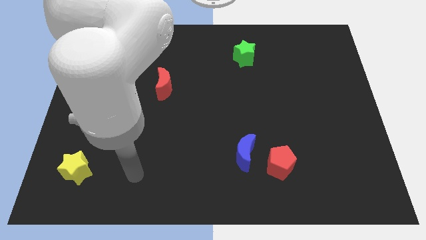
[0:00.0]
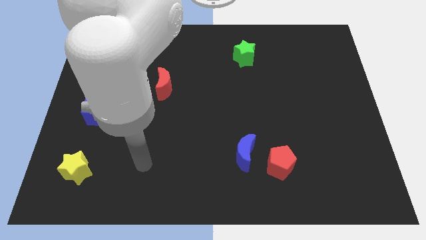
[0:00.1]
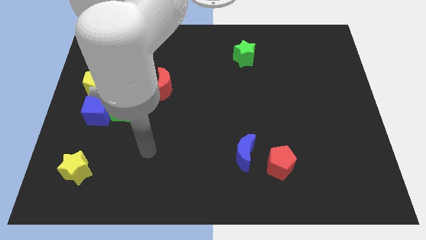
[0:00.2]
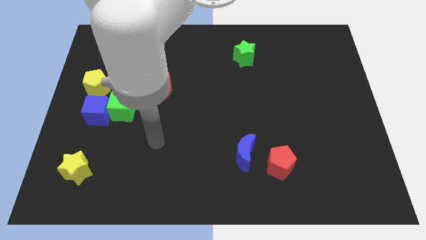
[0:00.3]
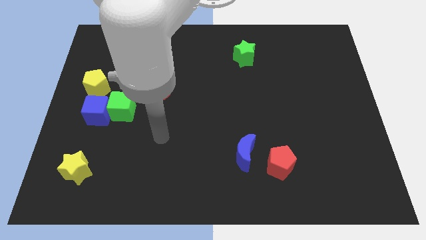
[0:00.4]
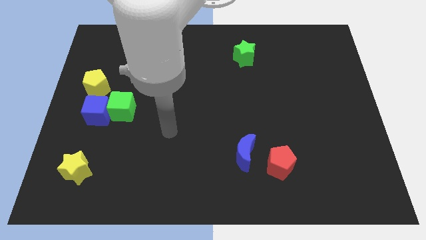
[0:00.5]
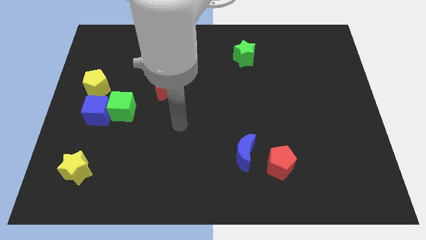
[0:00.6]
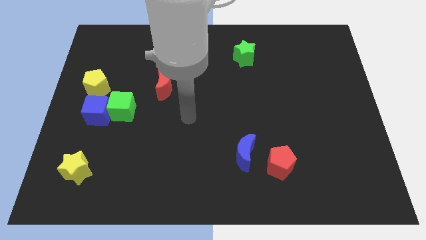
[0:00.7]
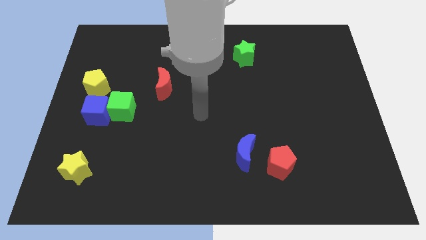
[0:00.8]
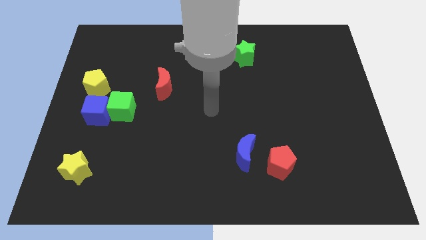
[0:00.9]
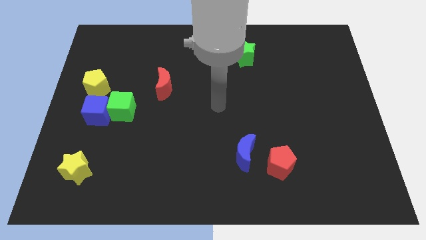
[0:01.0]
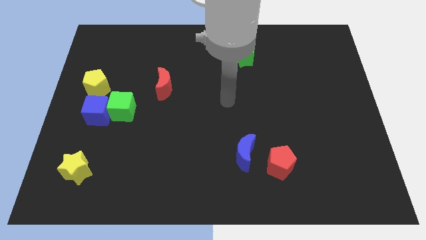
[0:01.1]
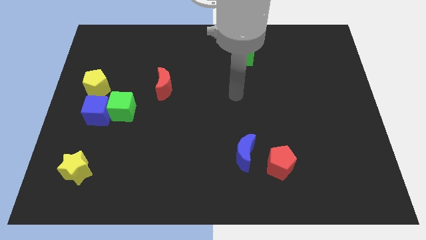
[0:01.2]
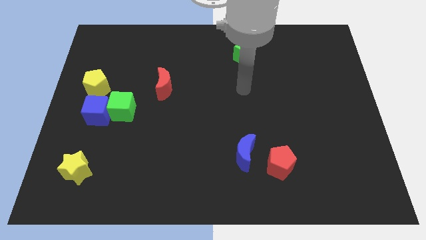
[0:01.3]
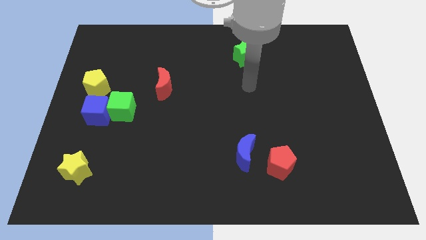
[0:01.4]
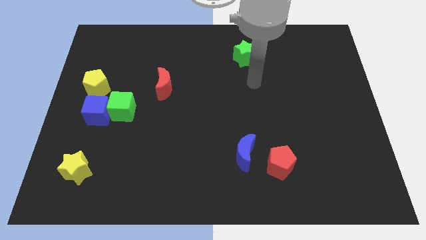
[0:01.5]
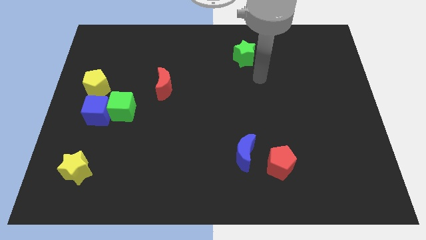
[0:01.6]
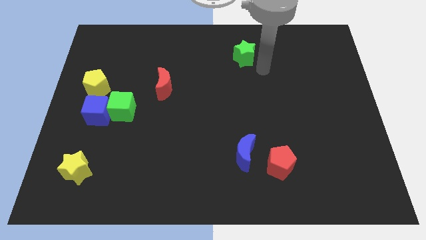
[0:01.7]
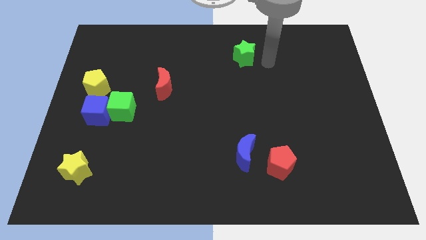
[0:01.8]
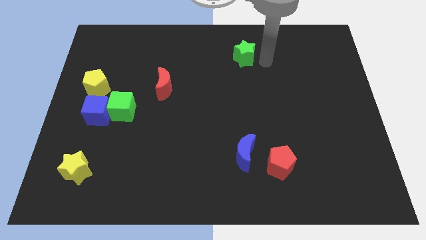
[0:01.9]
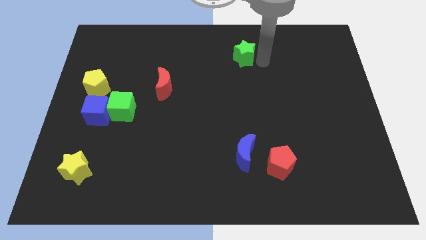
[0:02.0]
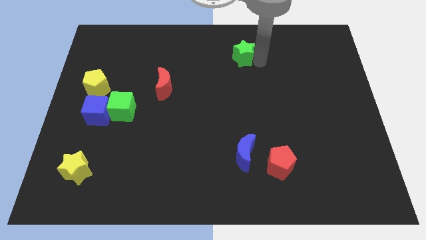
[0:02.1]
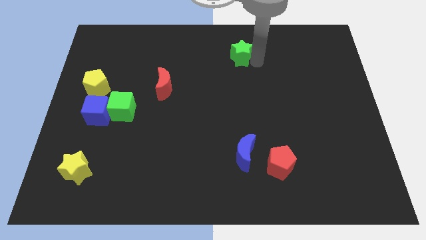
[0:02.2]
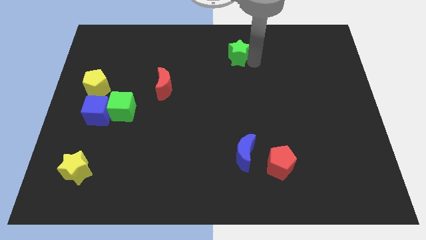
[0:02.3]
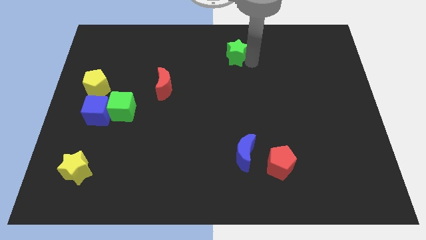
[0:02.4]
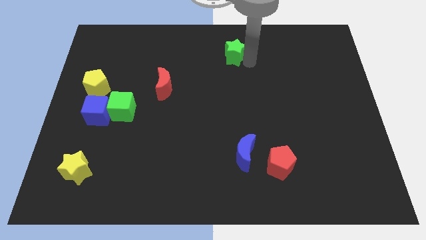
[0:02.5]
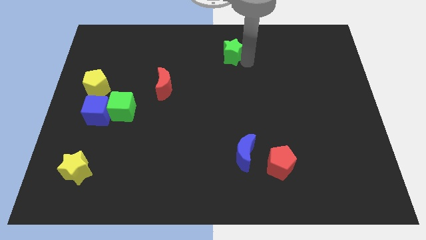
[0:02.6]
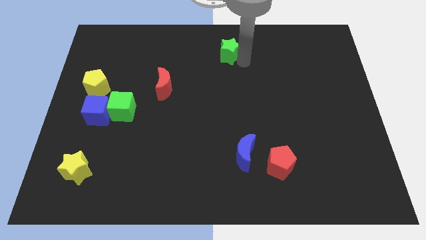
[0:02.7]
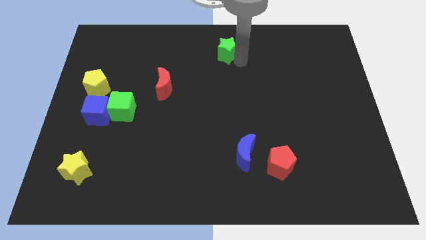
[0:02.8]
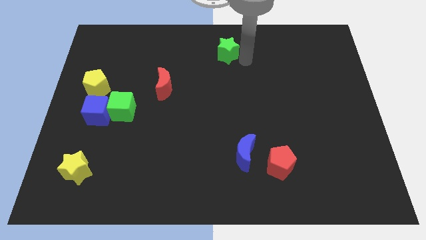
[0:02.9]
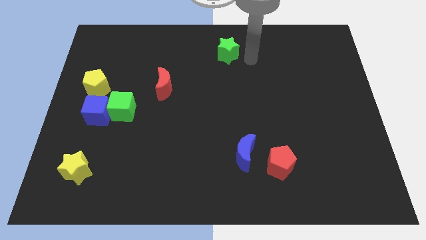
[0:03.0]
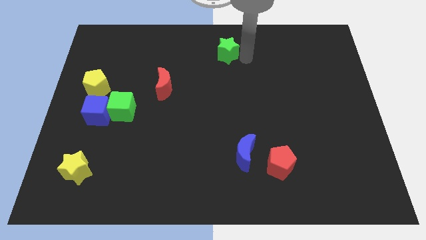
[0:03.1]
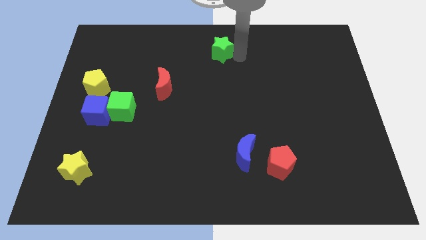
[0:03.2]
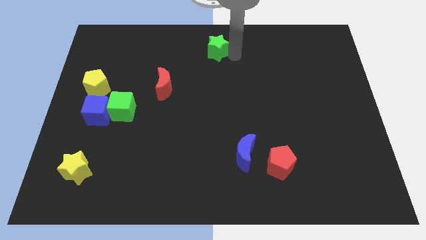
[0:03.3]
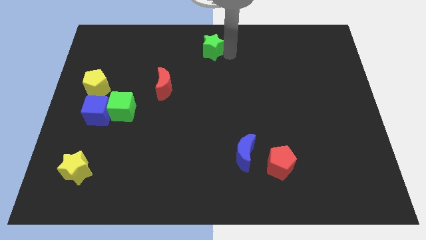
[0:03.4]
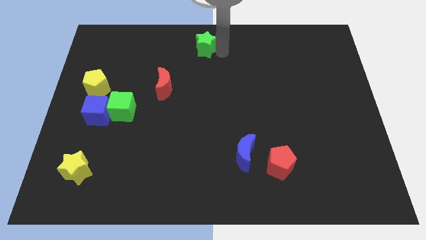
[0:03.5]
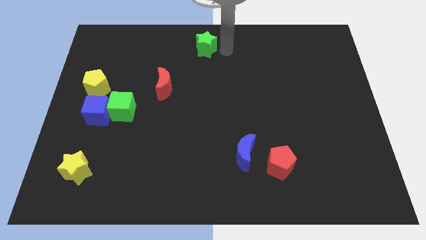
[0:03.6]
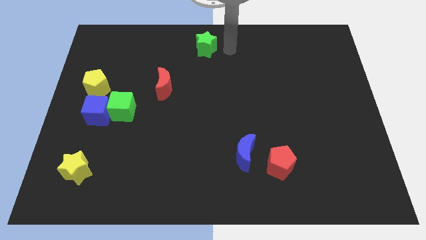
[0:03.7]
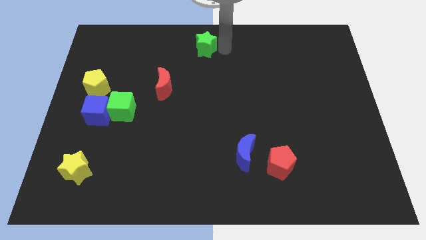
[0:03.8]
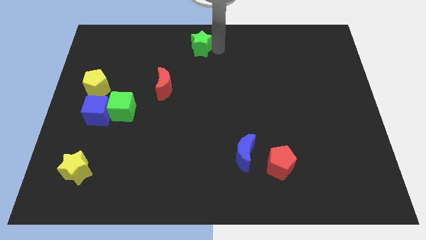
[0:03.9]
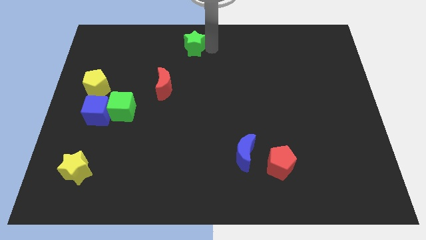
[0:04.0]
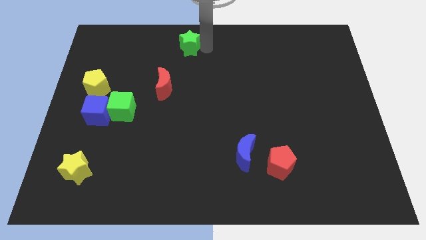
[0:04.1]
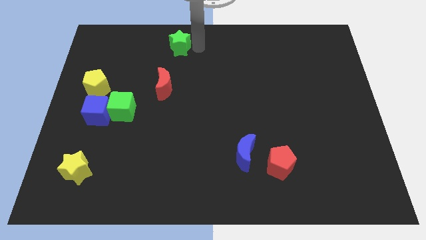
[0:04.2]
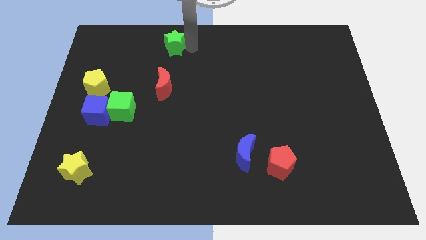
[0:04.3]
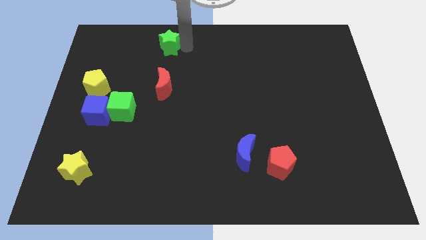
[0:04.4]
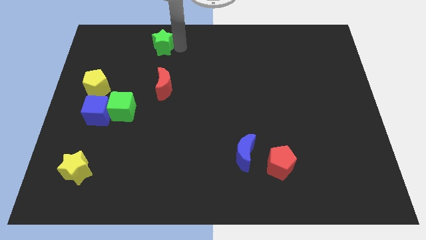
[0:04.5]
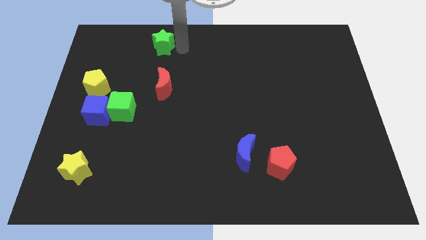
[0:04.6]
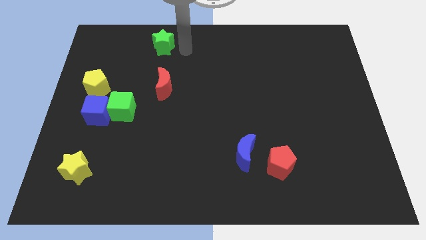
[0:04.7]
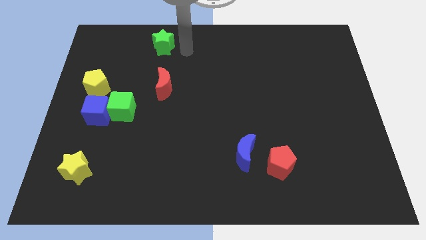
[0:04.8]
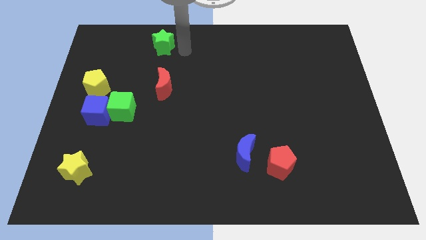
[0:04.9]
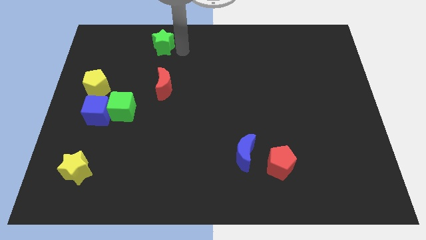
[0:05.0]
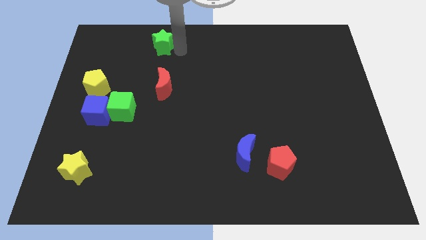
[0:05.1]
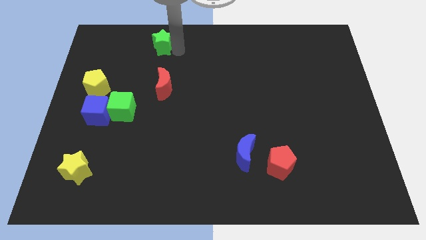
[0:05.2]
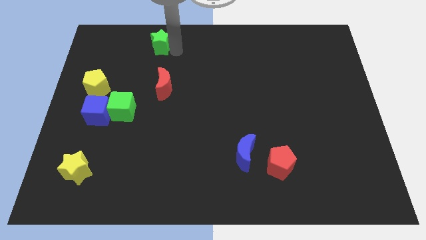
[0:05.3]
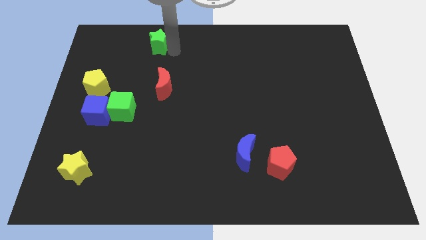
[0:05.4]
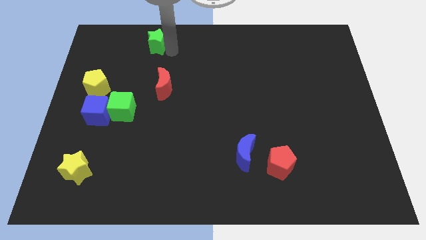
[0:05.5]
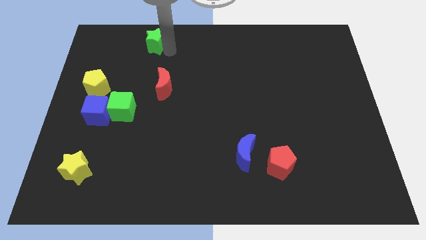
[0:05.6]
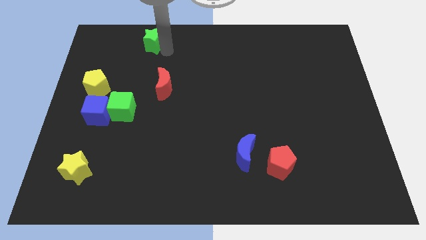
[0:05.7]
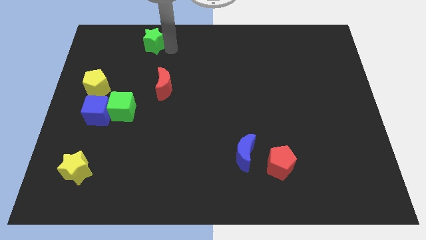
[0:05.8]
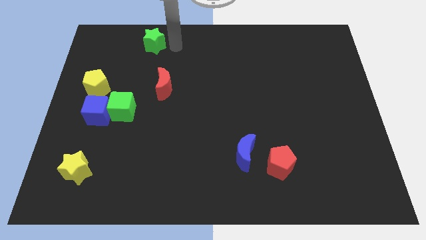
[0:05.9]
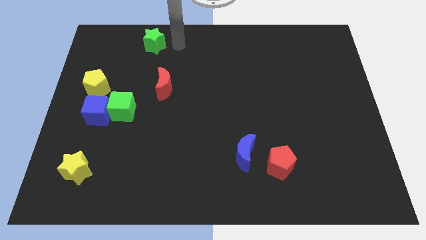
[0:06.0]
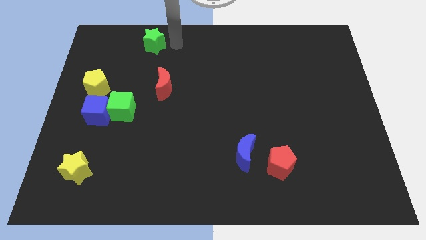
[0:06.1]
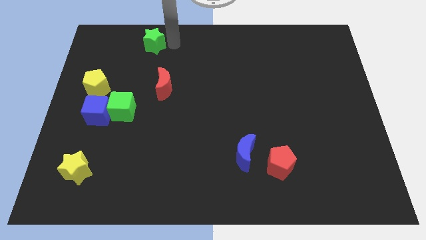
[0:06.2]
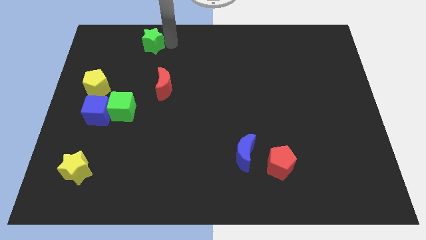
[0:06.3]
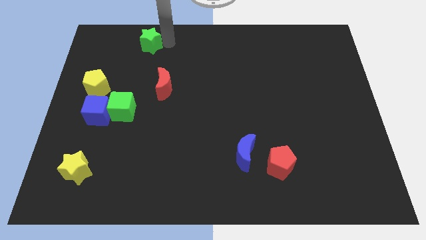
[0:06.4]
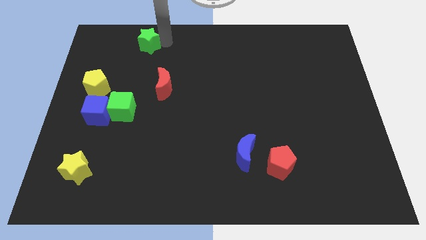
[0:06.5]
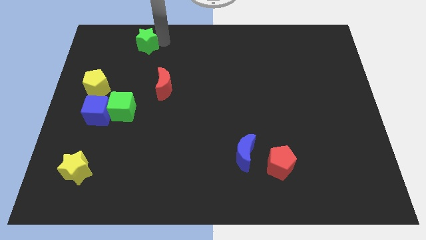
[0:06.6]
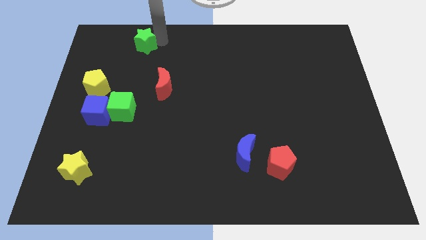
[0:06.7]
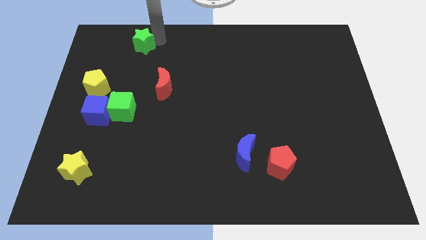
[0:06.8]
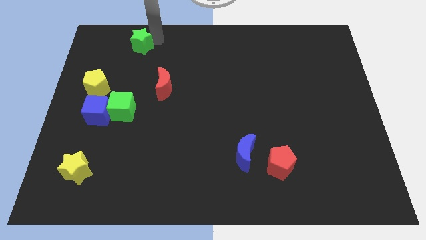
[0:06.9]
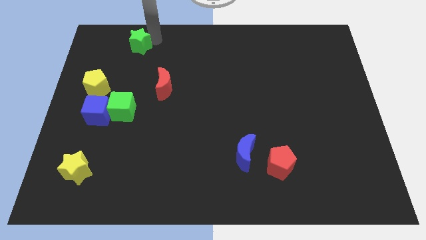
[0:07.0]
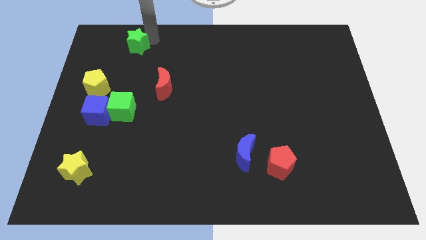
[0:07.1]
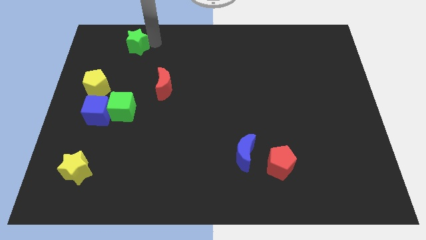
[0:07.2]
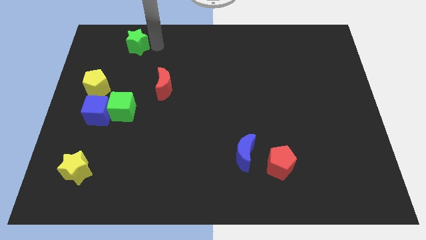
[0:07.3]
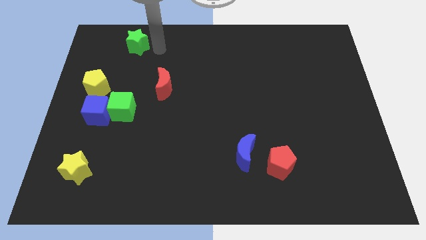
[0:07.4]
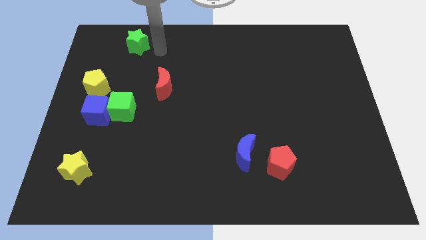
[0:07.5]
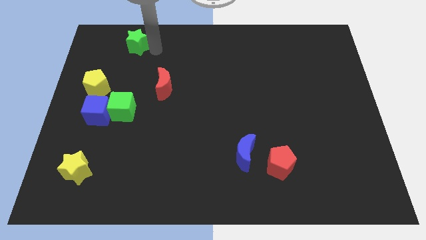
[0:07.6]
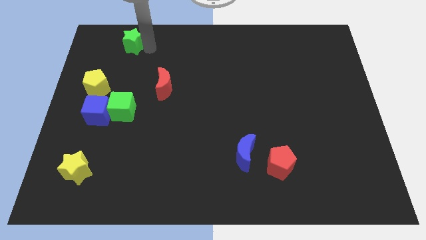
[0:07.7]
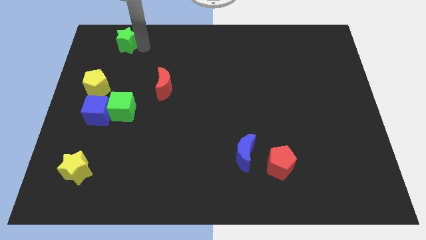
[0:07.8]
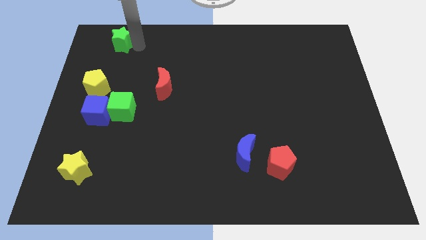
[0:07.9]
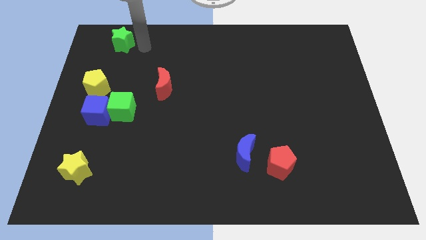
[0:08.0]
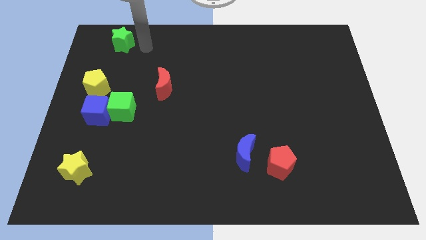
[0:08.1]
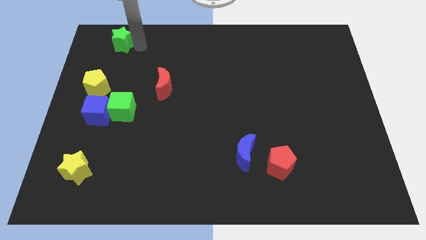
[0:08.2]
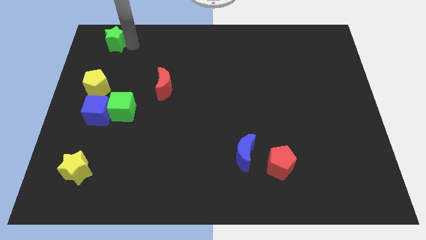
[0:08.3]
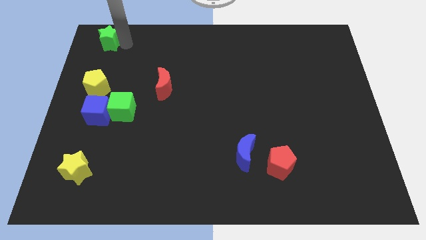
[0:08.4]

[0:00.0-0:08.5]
push the green star to the top left
